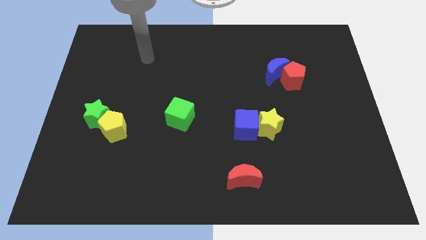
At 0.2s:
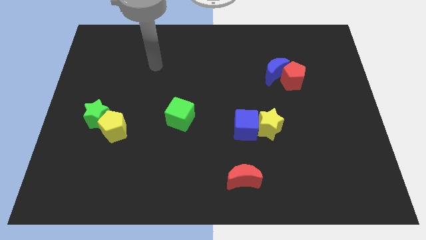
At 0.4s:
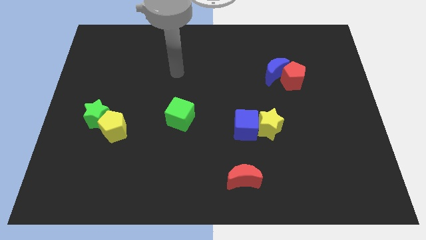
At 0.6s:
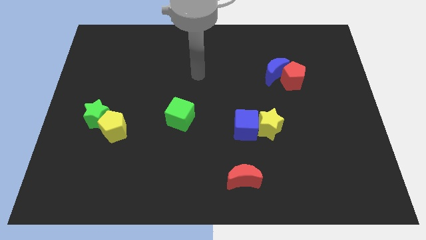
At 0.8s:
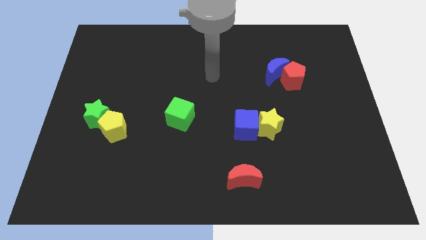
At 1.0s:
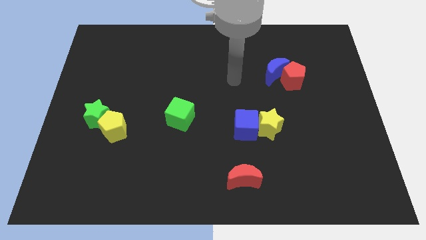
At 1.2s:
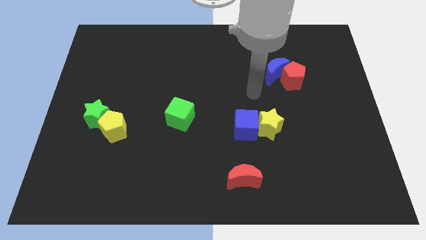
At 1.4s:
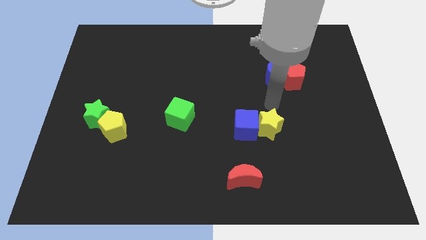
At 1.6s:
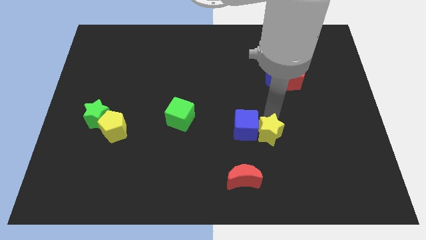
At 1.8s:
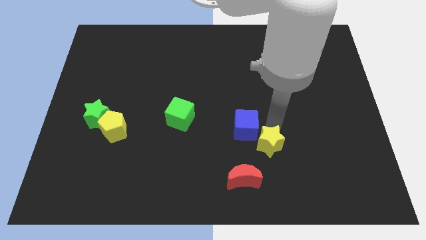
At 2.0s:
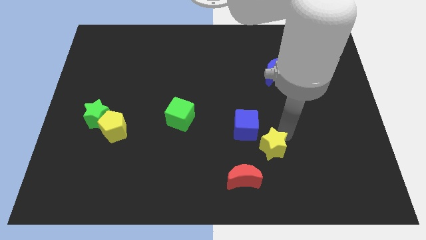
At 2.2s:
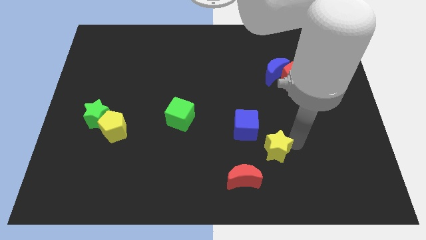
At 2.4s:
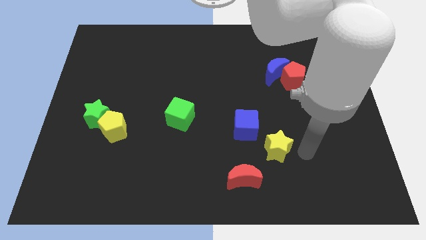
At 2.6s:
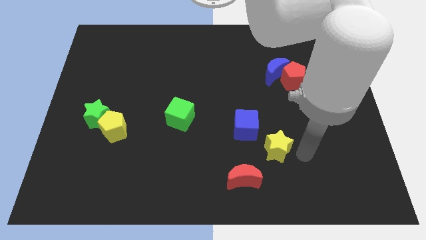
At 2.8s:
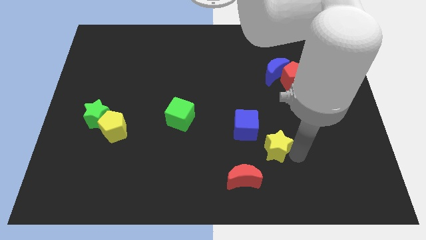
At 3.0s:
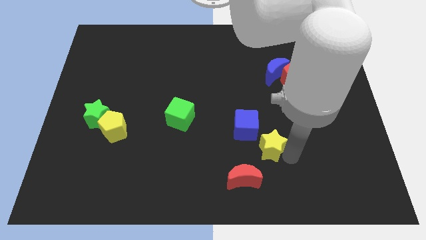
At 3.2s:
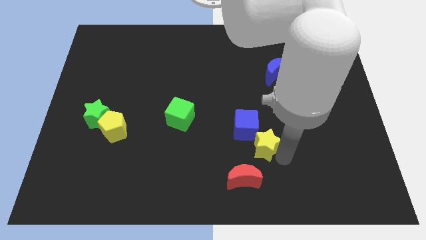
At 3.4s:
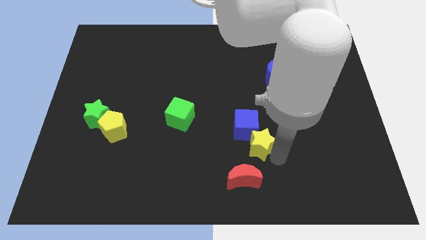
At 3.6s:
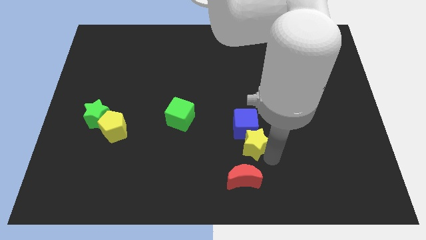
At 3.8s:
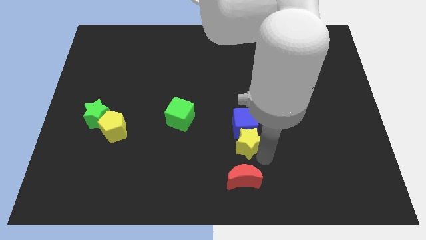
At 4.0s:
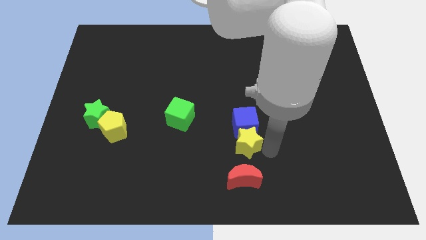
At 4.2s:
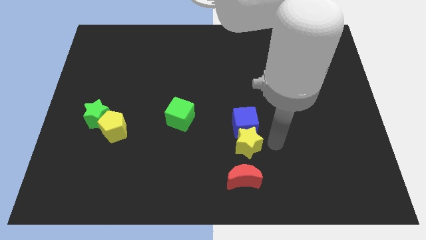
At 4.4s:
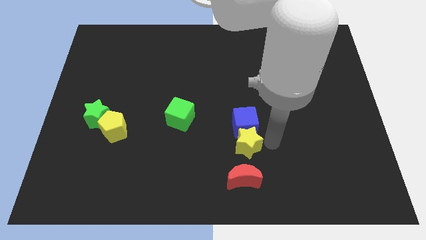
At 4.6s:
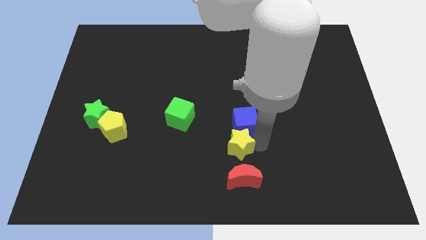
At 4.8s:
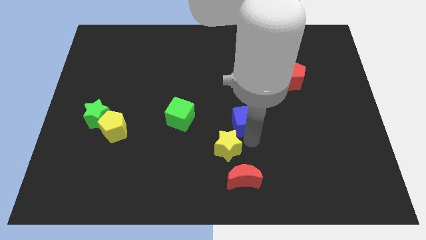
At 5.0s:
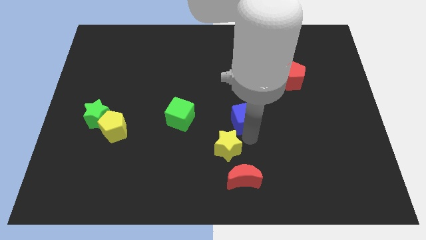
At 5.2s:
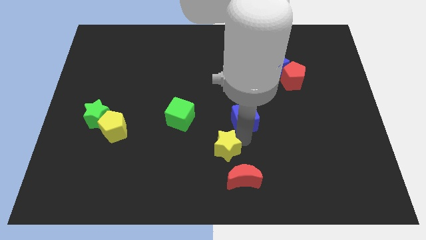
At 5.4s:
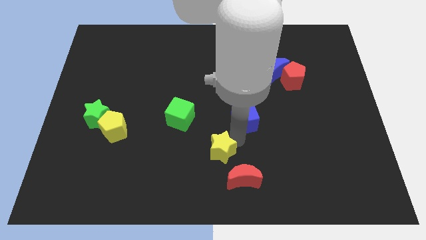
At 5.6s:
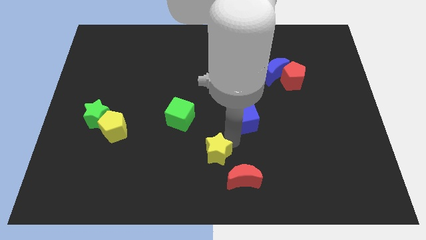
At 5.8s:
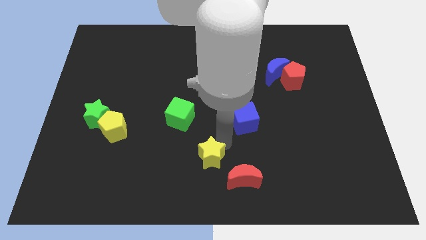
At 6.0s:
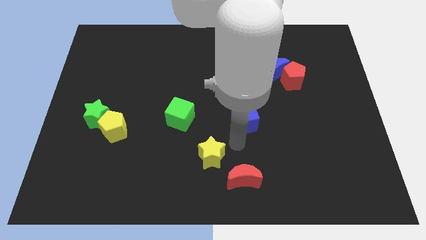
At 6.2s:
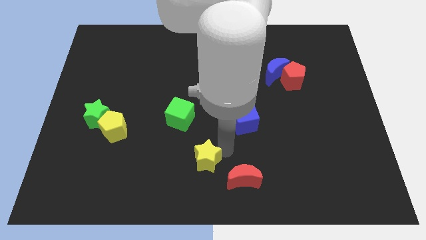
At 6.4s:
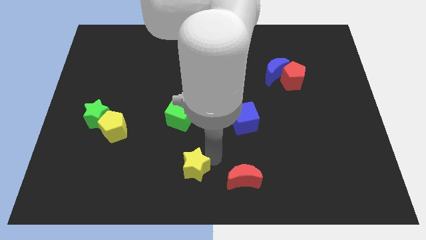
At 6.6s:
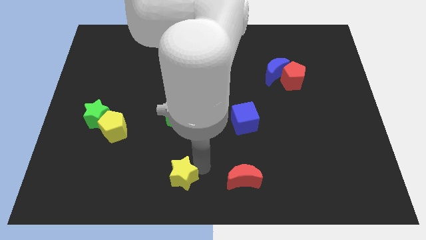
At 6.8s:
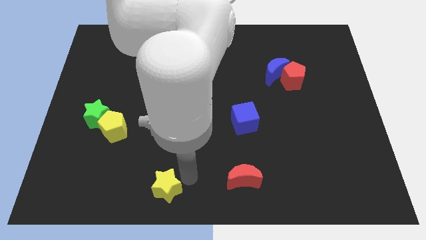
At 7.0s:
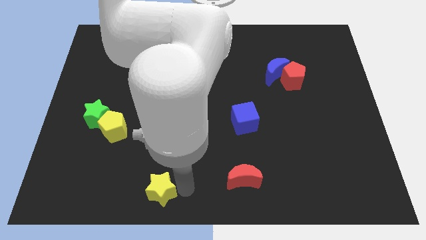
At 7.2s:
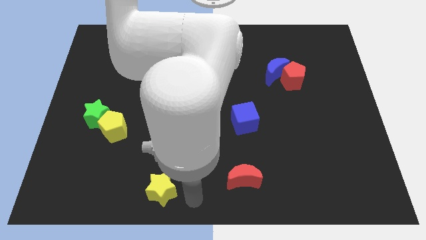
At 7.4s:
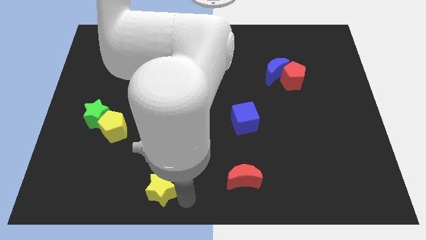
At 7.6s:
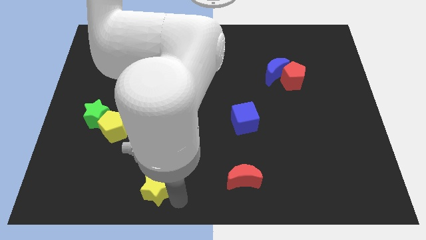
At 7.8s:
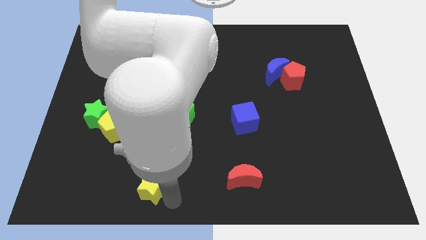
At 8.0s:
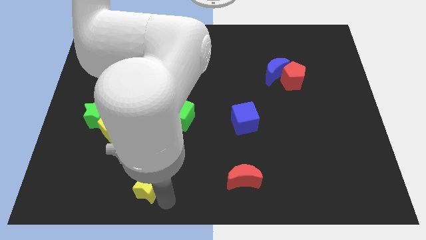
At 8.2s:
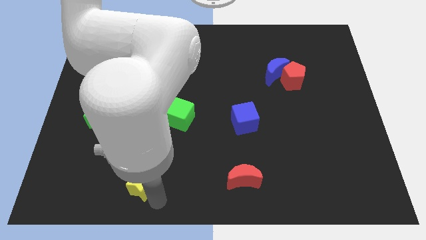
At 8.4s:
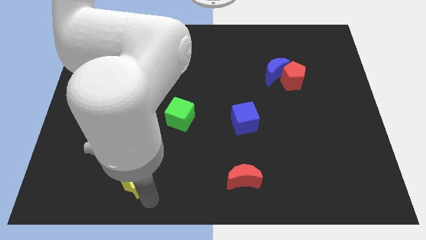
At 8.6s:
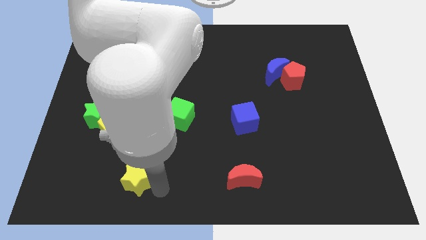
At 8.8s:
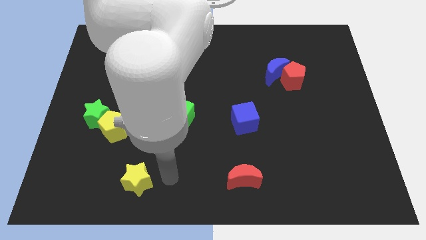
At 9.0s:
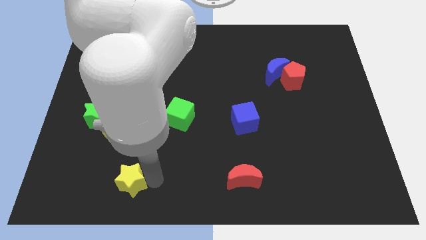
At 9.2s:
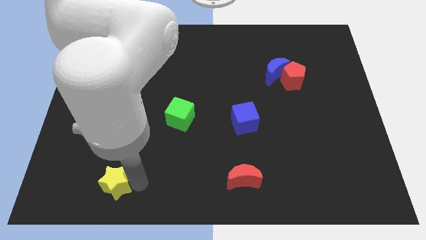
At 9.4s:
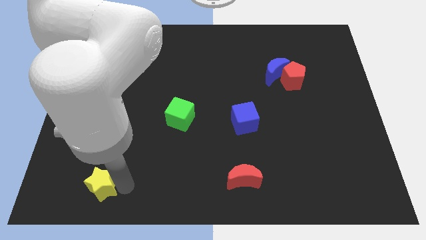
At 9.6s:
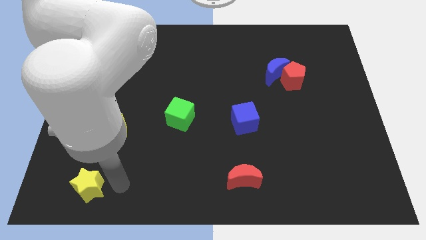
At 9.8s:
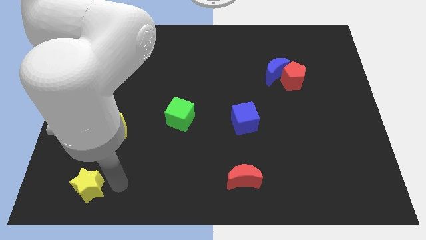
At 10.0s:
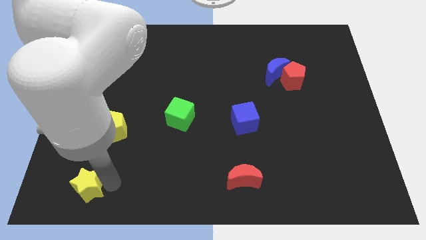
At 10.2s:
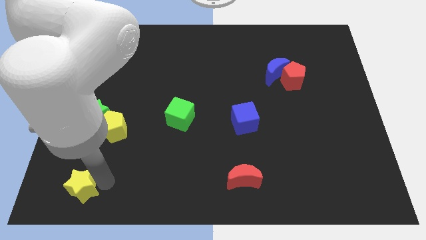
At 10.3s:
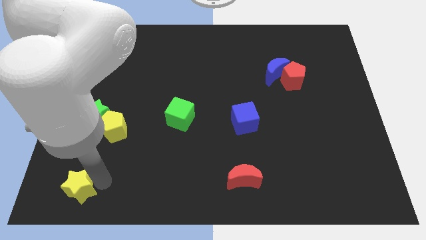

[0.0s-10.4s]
put the yellow star to the lower left corner
